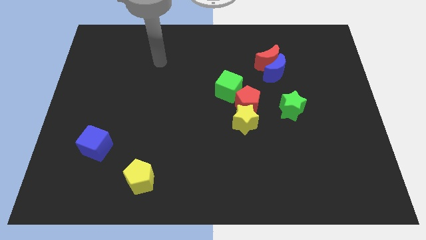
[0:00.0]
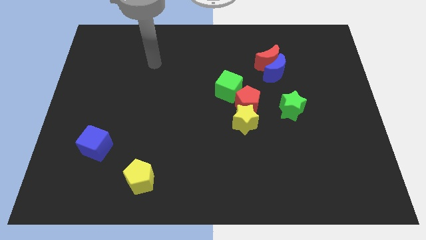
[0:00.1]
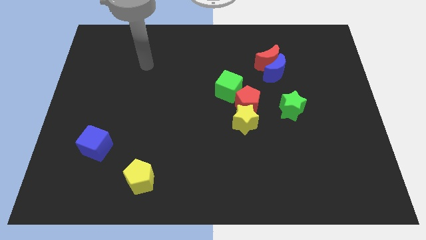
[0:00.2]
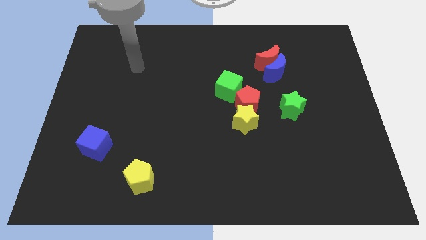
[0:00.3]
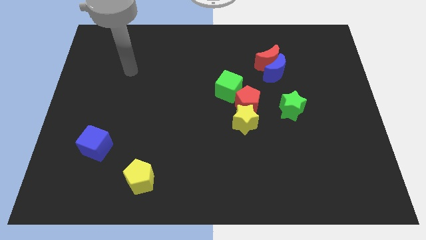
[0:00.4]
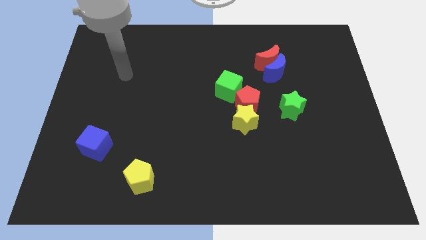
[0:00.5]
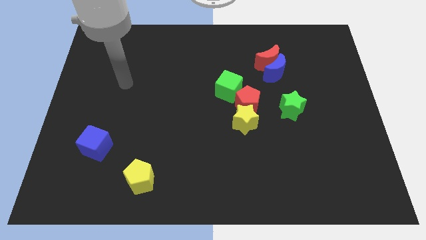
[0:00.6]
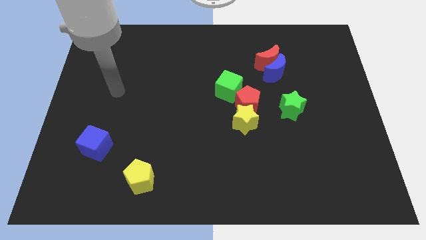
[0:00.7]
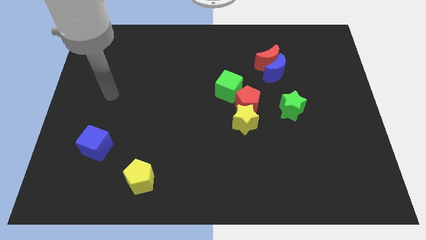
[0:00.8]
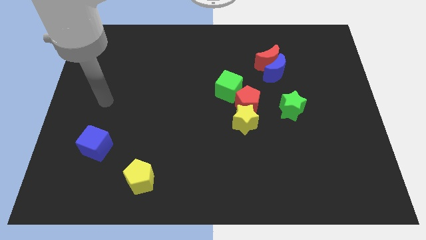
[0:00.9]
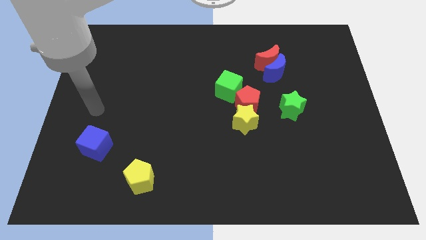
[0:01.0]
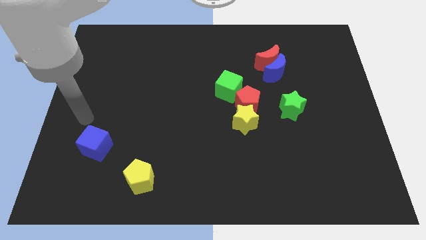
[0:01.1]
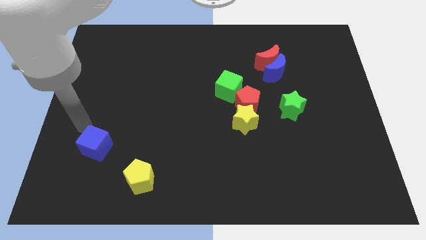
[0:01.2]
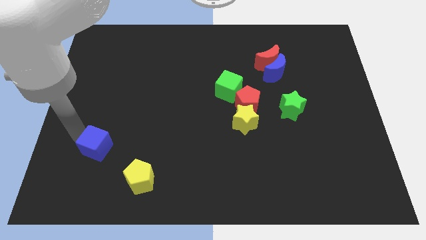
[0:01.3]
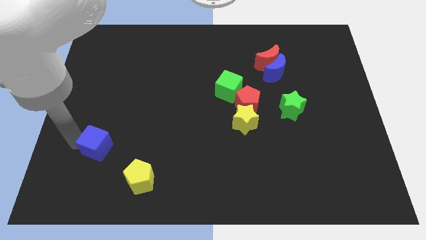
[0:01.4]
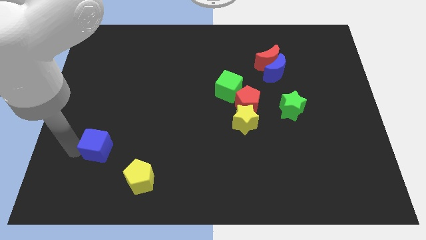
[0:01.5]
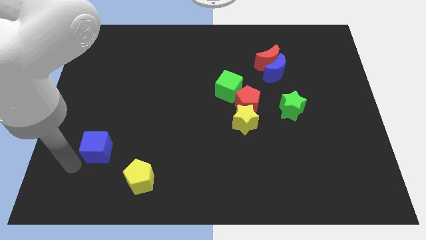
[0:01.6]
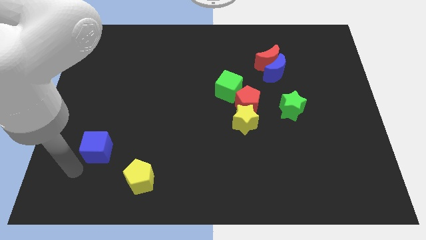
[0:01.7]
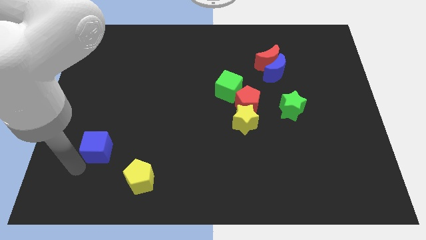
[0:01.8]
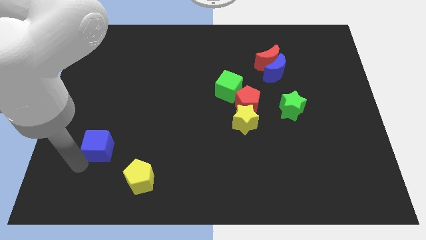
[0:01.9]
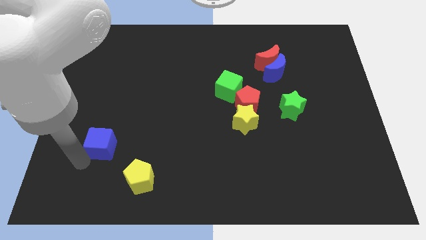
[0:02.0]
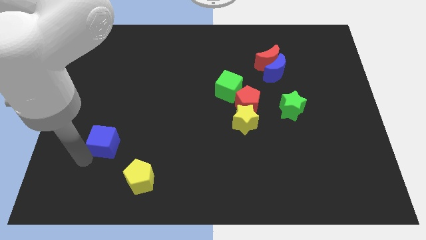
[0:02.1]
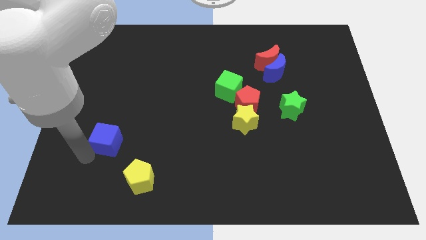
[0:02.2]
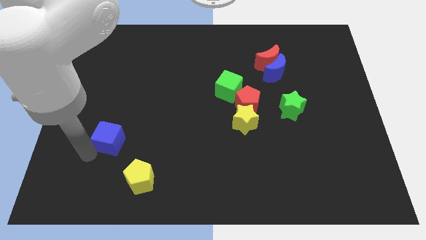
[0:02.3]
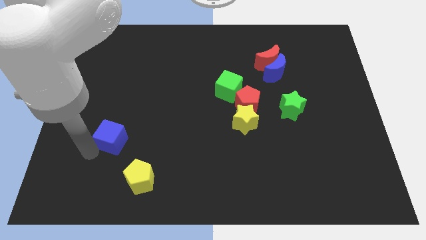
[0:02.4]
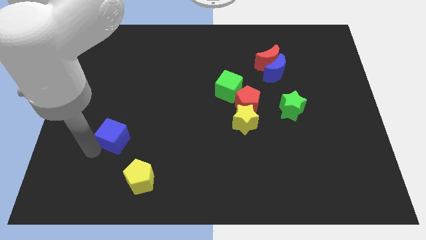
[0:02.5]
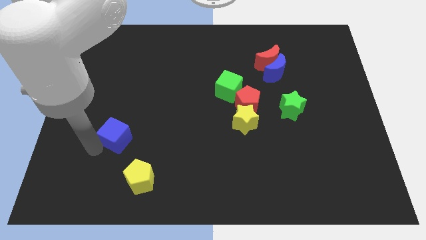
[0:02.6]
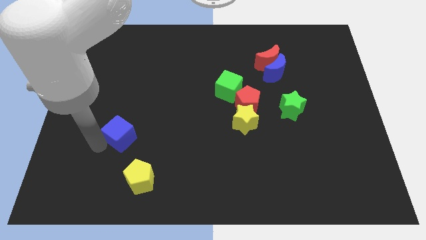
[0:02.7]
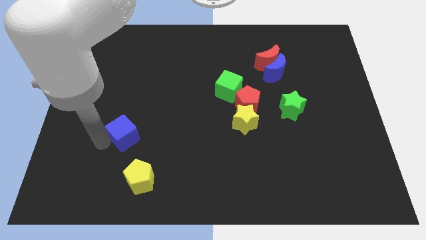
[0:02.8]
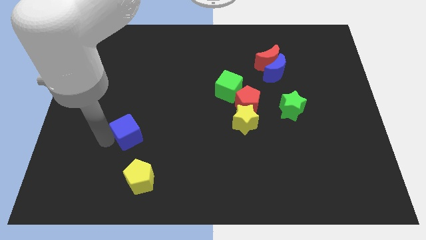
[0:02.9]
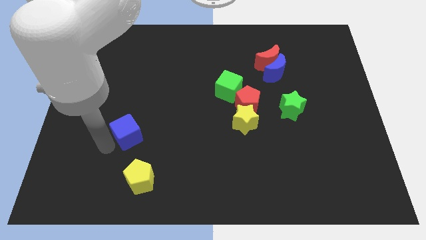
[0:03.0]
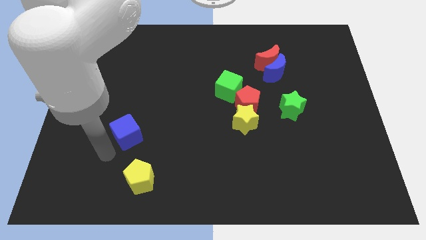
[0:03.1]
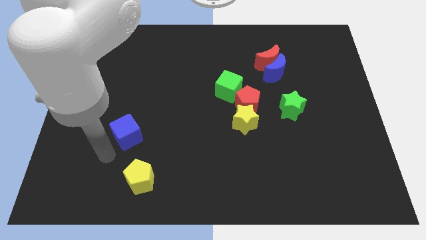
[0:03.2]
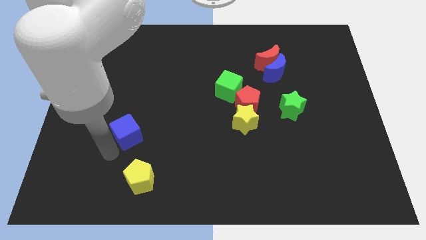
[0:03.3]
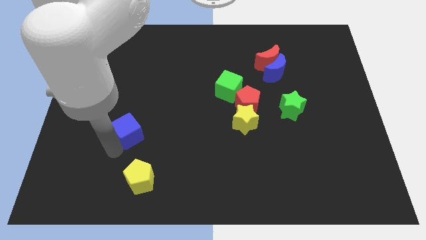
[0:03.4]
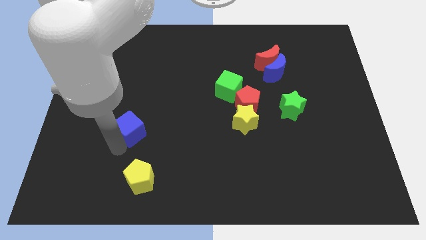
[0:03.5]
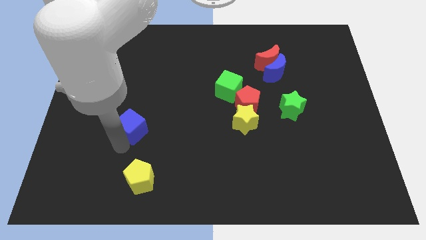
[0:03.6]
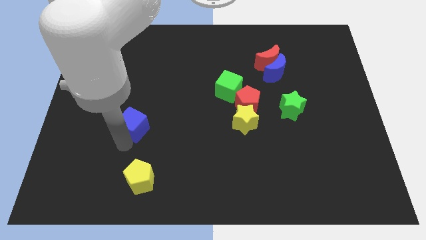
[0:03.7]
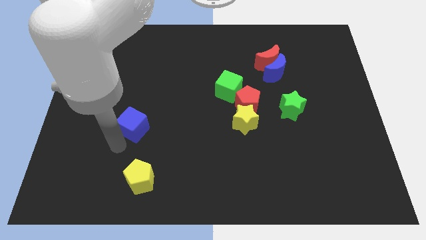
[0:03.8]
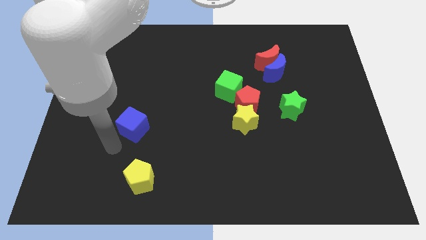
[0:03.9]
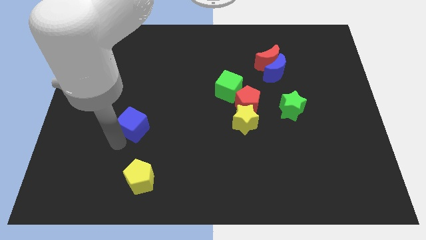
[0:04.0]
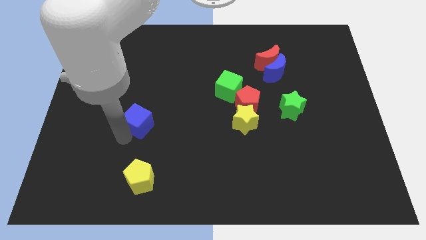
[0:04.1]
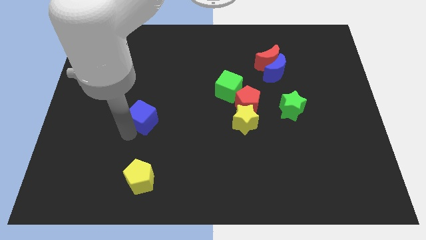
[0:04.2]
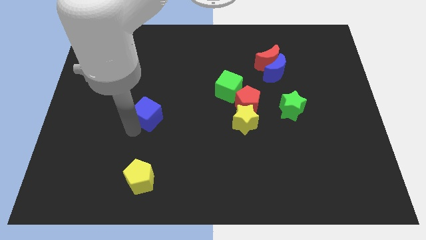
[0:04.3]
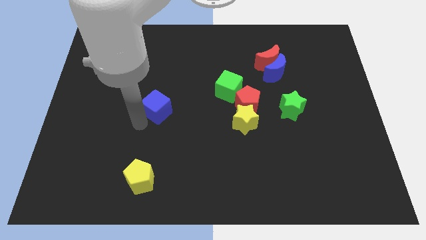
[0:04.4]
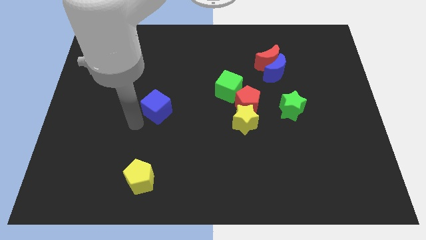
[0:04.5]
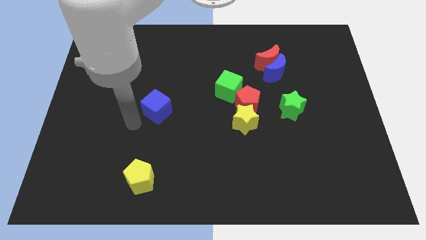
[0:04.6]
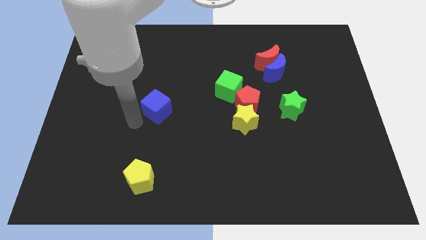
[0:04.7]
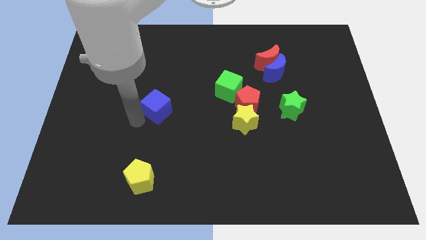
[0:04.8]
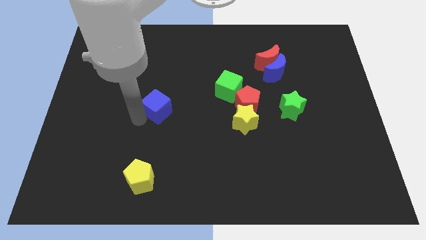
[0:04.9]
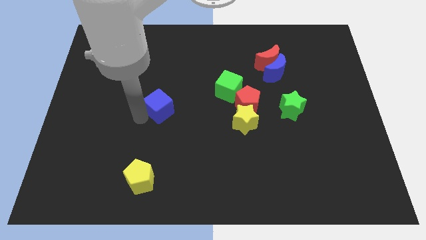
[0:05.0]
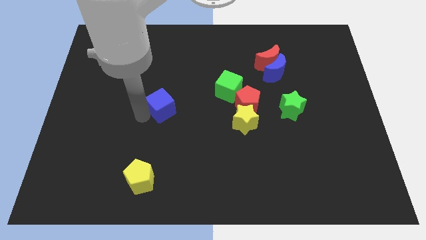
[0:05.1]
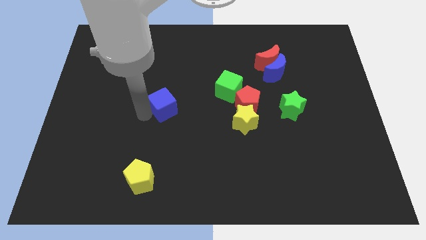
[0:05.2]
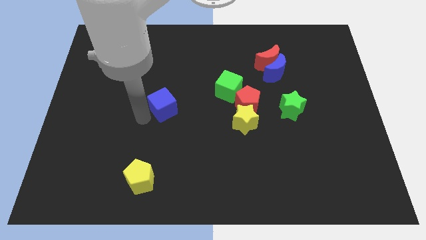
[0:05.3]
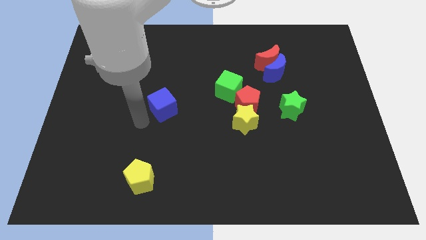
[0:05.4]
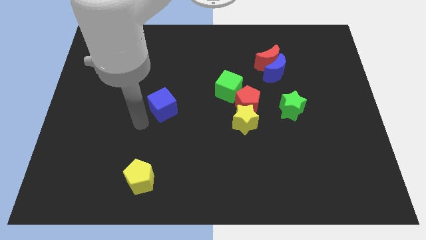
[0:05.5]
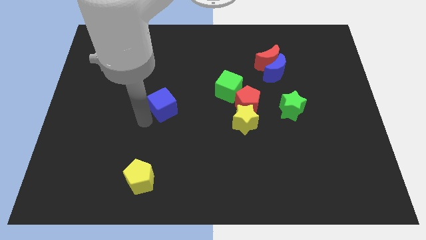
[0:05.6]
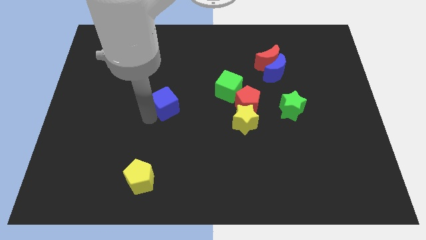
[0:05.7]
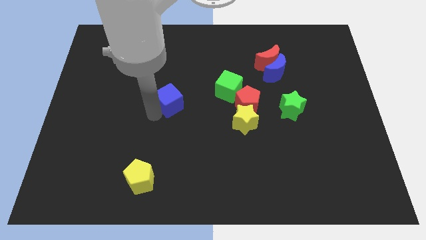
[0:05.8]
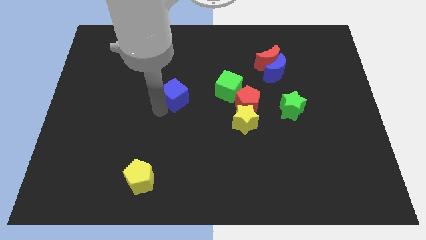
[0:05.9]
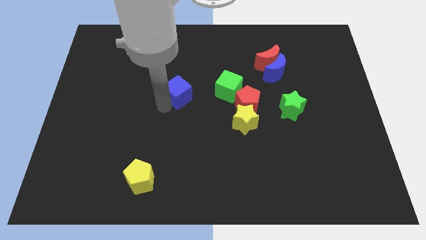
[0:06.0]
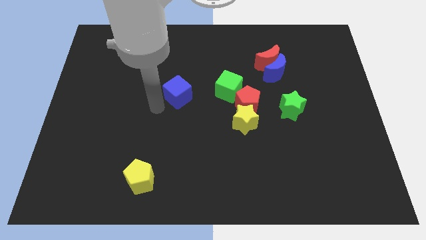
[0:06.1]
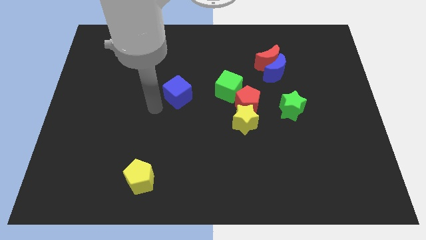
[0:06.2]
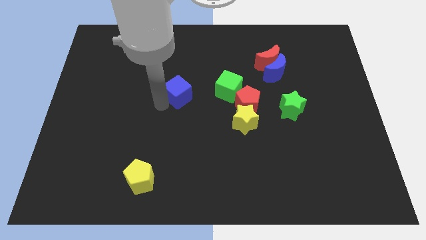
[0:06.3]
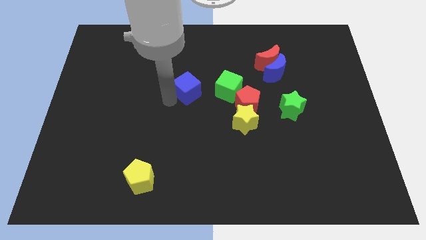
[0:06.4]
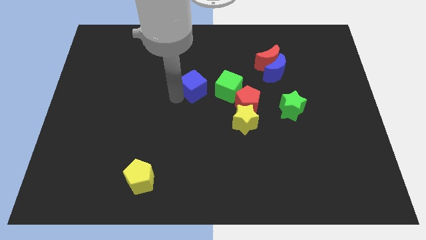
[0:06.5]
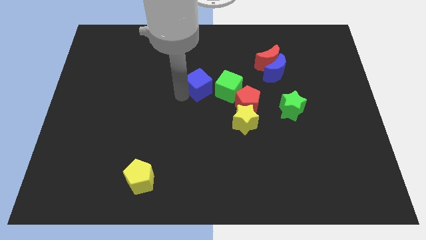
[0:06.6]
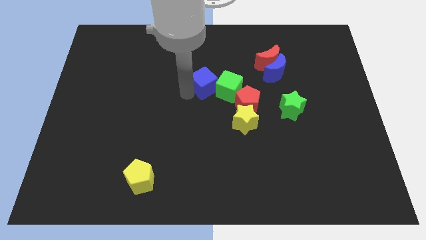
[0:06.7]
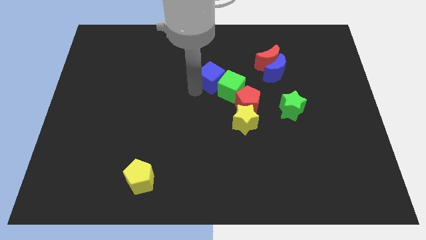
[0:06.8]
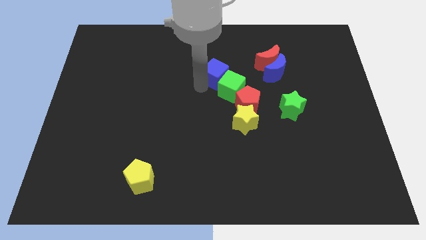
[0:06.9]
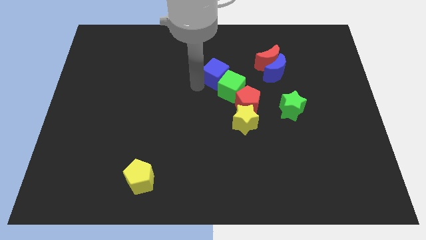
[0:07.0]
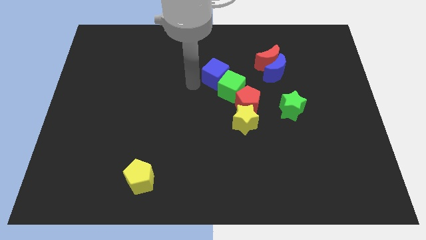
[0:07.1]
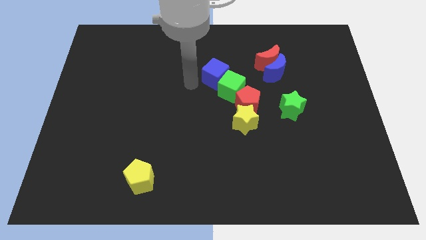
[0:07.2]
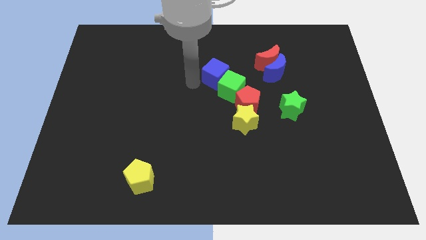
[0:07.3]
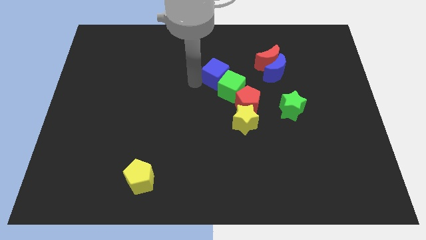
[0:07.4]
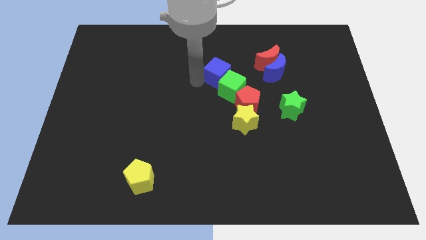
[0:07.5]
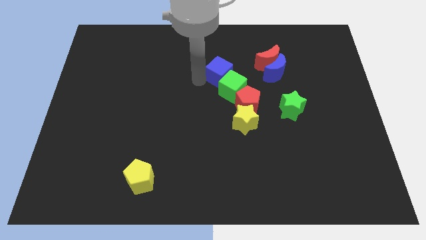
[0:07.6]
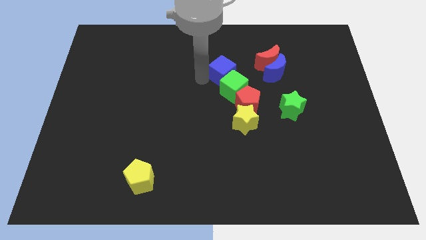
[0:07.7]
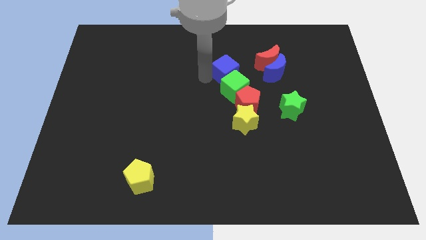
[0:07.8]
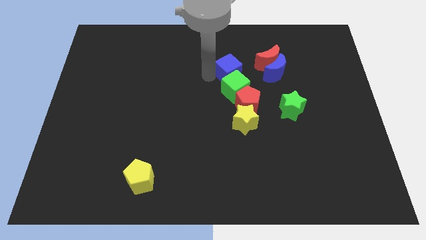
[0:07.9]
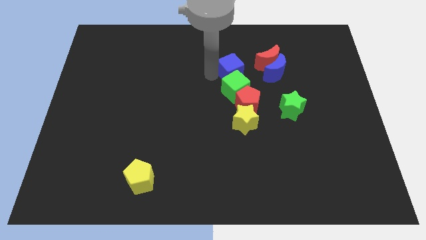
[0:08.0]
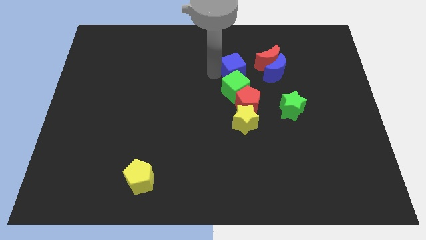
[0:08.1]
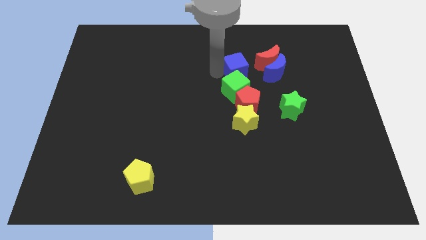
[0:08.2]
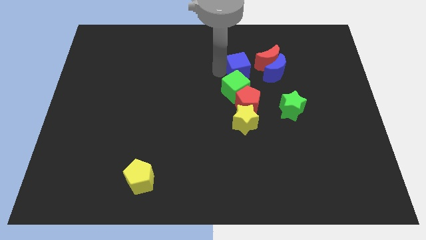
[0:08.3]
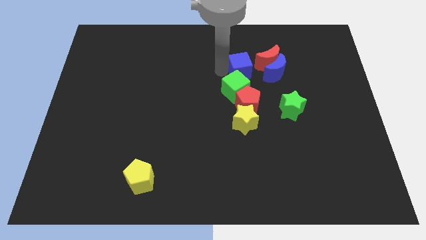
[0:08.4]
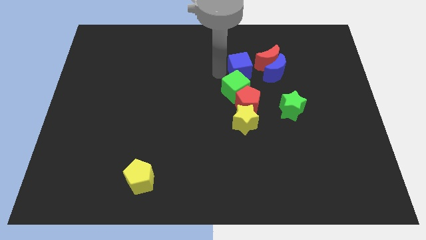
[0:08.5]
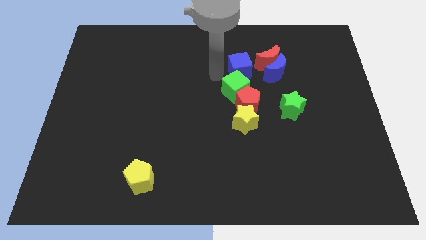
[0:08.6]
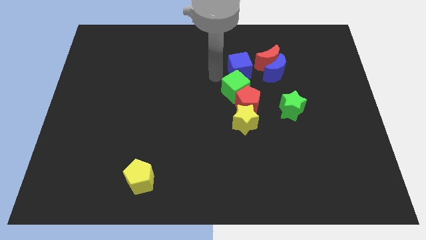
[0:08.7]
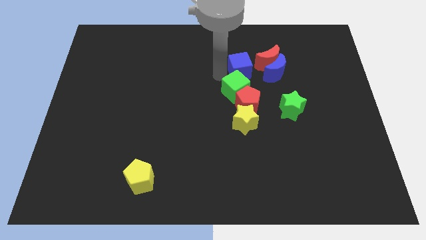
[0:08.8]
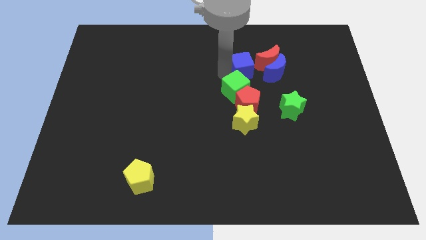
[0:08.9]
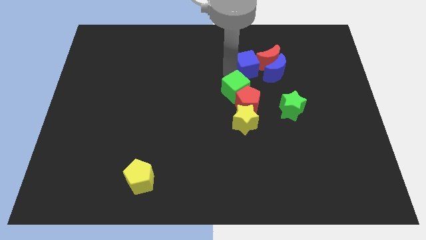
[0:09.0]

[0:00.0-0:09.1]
put the blue cube to the red moon
